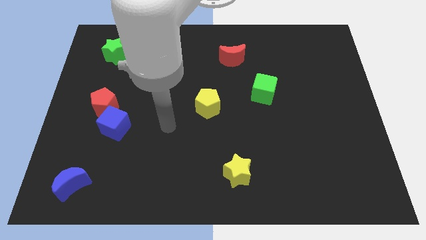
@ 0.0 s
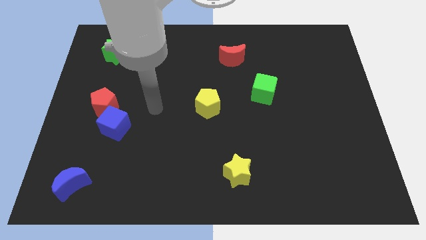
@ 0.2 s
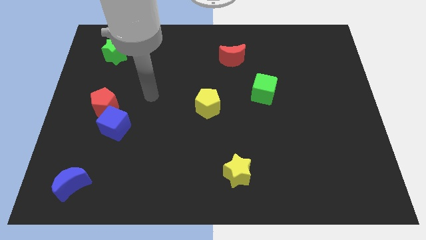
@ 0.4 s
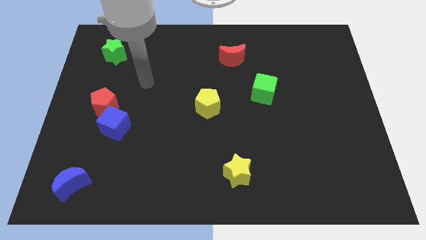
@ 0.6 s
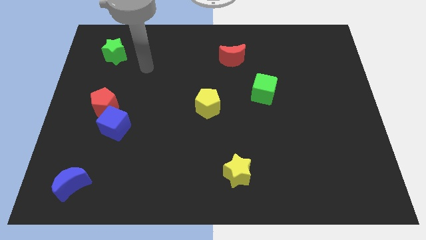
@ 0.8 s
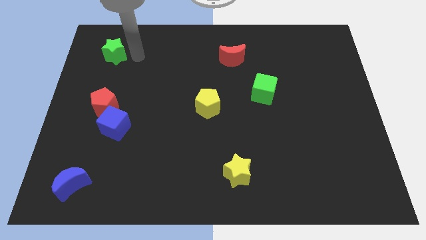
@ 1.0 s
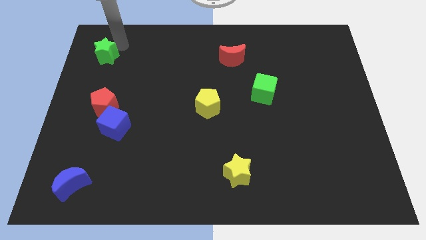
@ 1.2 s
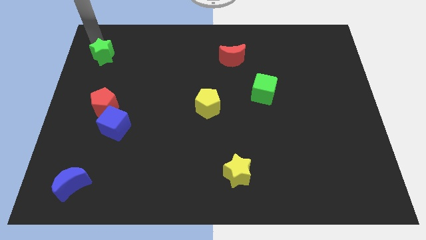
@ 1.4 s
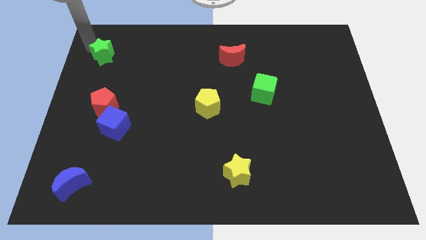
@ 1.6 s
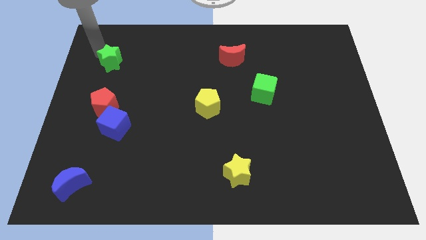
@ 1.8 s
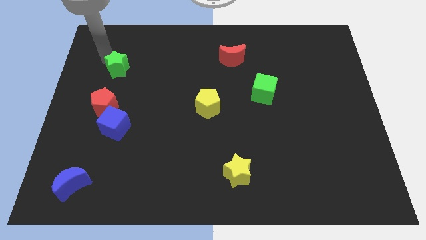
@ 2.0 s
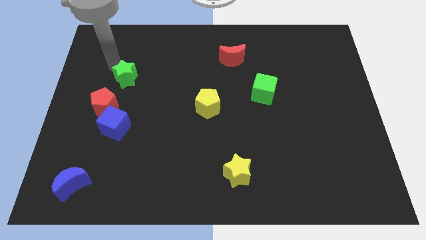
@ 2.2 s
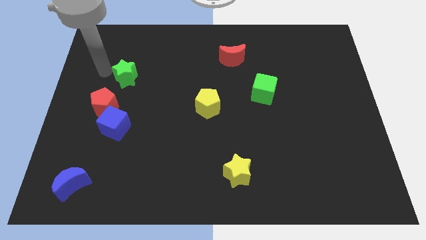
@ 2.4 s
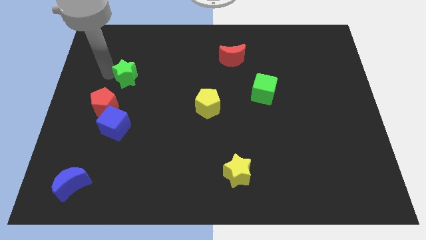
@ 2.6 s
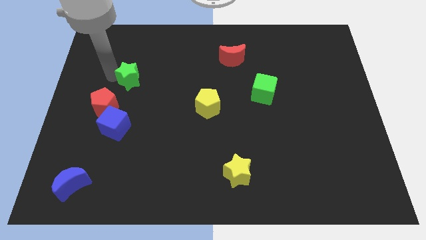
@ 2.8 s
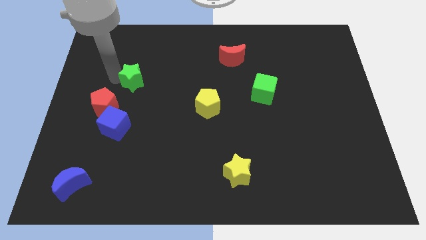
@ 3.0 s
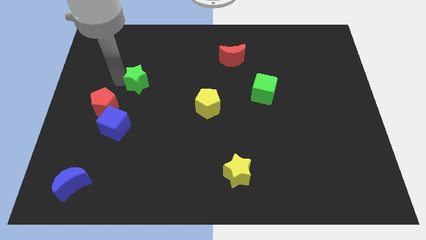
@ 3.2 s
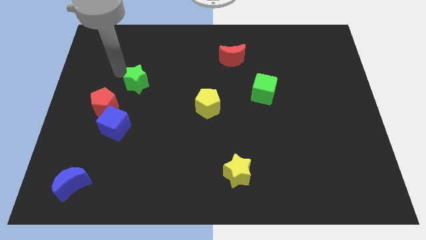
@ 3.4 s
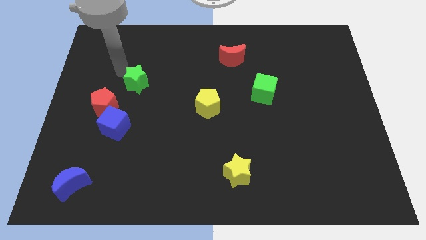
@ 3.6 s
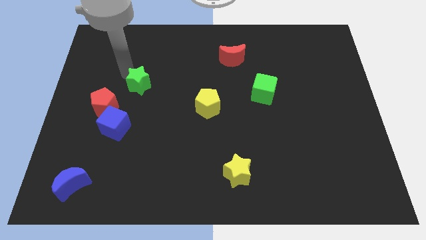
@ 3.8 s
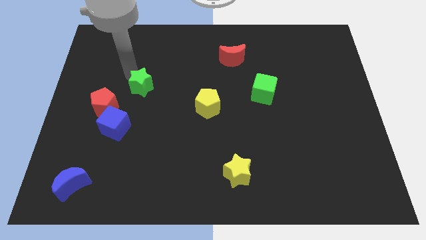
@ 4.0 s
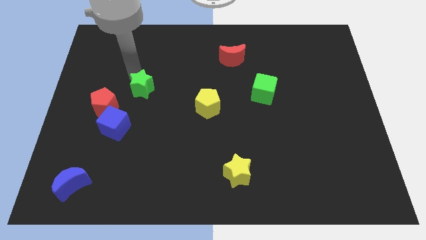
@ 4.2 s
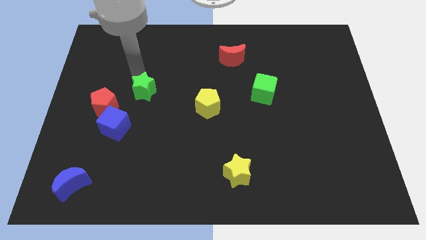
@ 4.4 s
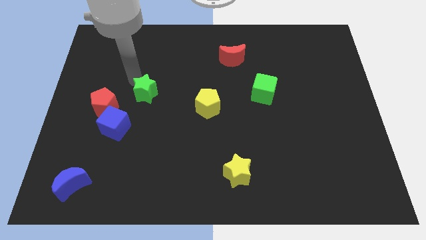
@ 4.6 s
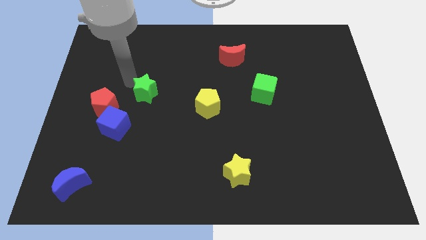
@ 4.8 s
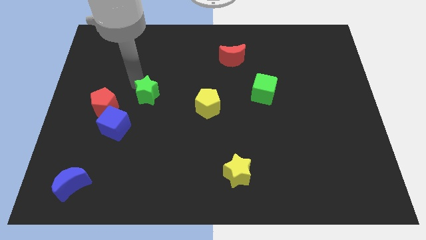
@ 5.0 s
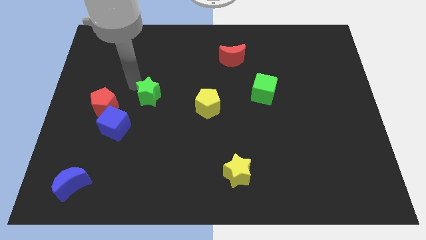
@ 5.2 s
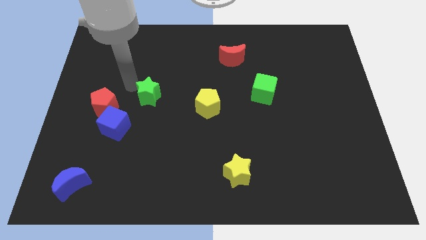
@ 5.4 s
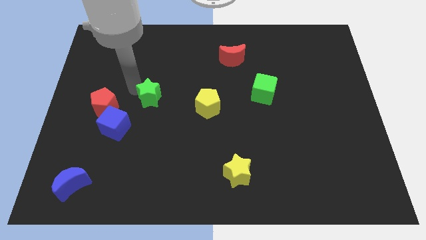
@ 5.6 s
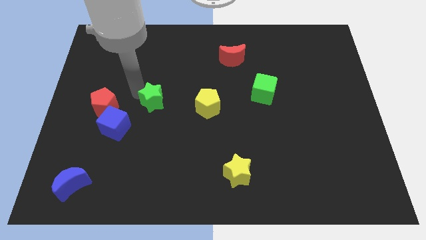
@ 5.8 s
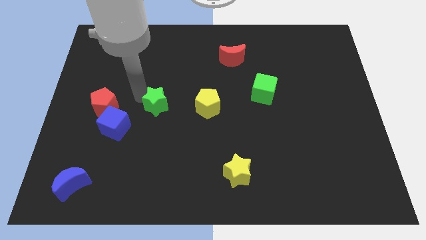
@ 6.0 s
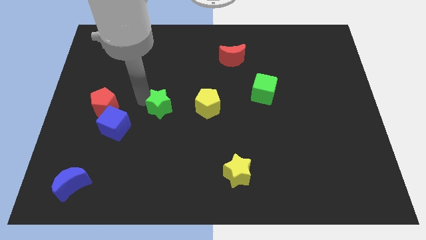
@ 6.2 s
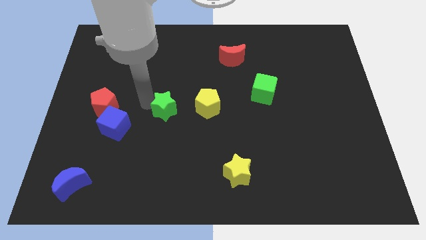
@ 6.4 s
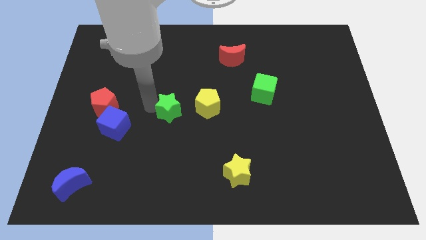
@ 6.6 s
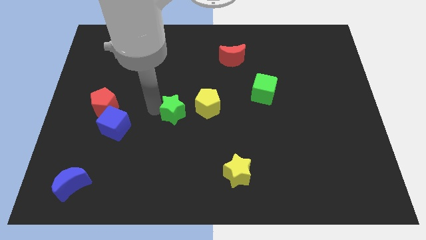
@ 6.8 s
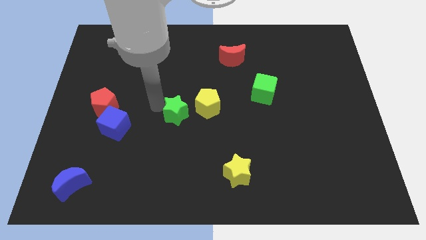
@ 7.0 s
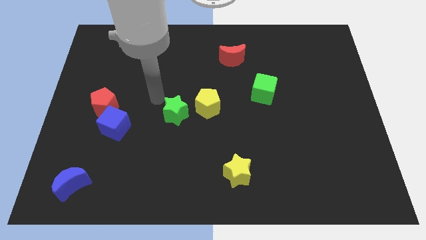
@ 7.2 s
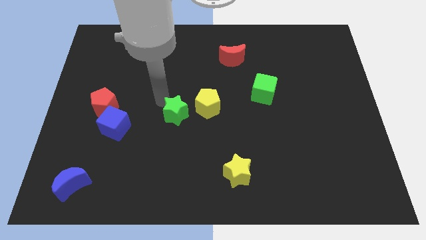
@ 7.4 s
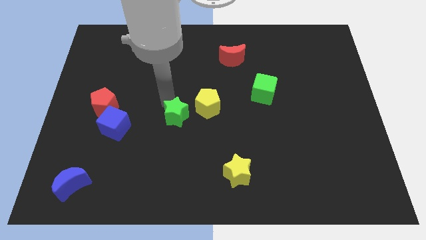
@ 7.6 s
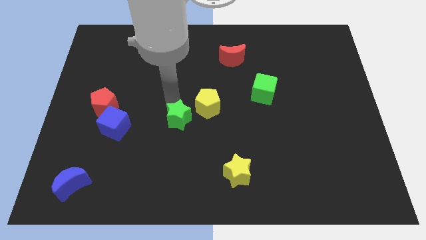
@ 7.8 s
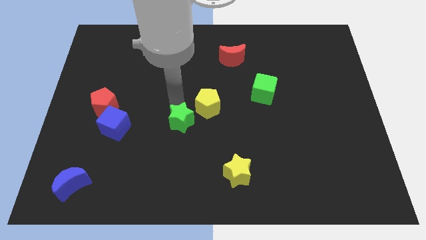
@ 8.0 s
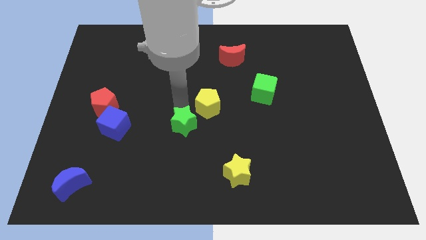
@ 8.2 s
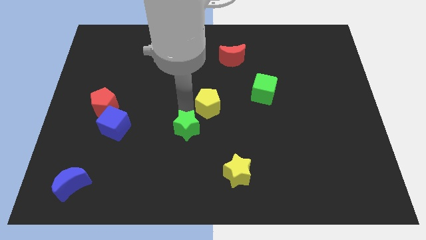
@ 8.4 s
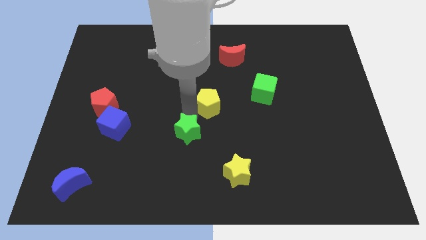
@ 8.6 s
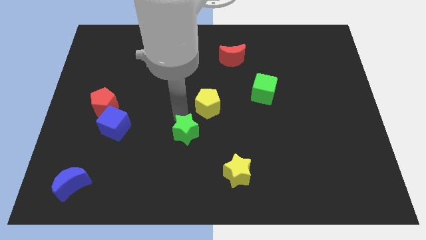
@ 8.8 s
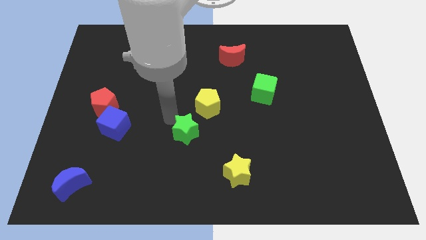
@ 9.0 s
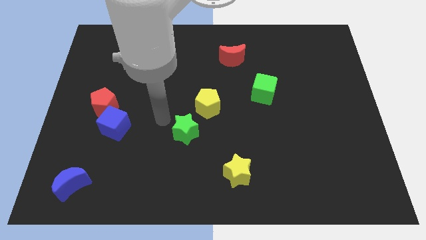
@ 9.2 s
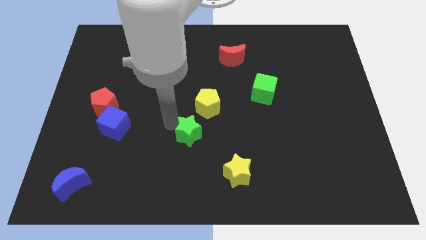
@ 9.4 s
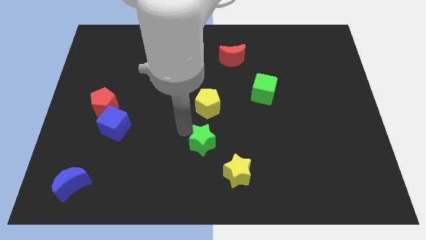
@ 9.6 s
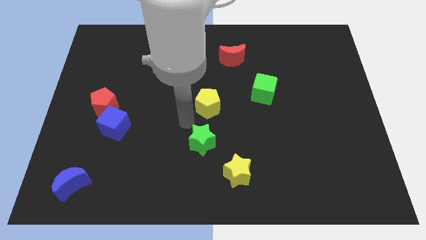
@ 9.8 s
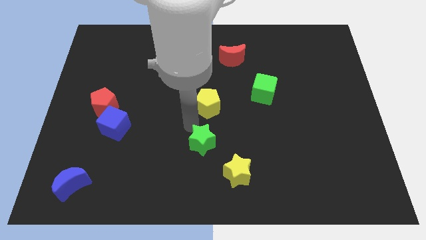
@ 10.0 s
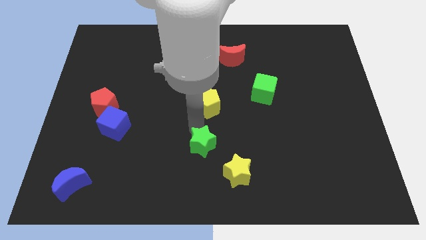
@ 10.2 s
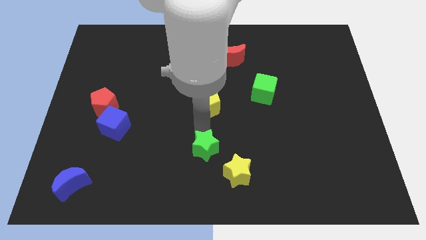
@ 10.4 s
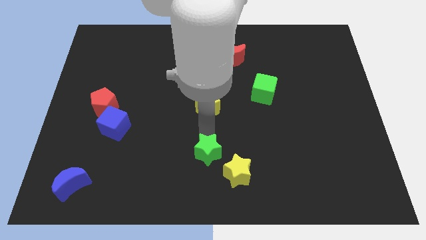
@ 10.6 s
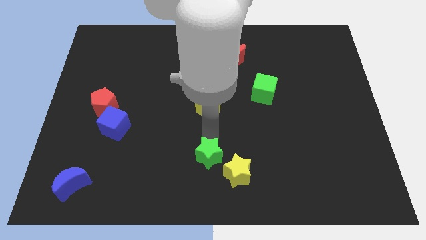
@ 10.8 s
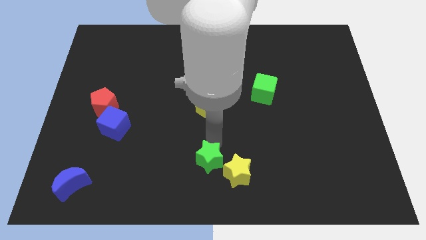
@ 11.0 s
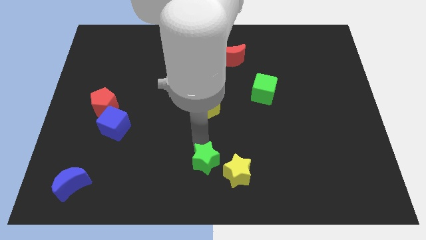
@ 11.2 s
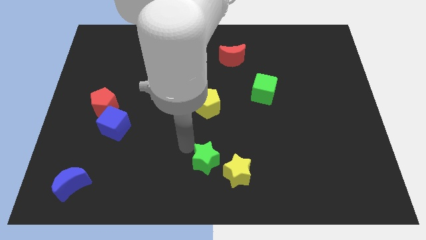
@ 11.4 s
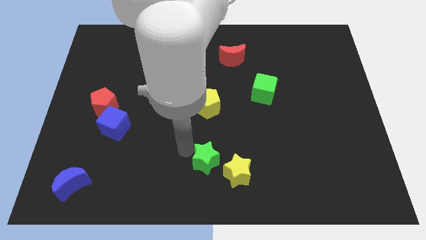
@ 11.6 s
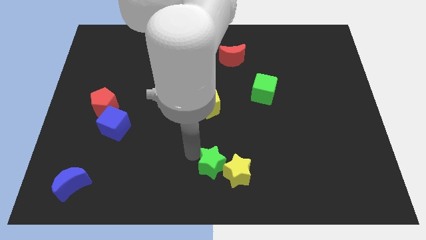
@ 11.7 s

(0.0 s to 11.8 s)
push the green star towards the yellow star

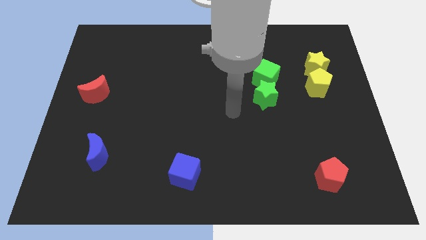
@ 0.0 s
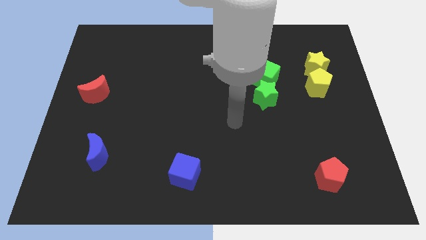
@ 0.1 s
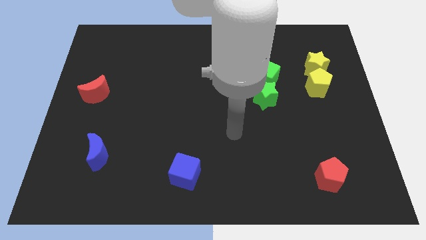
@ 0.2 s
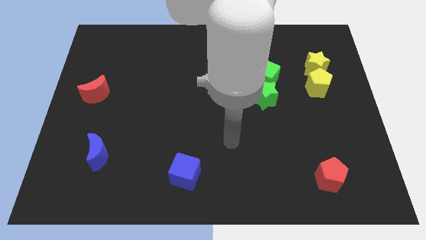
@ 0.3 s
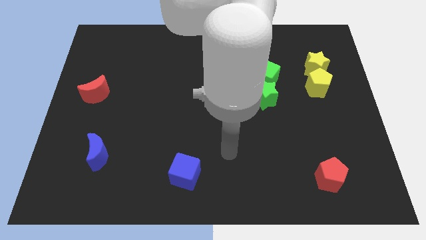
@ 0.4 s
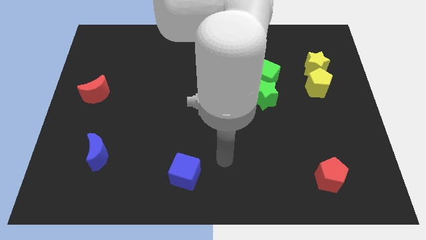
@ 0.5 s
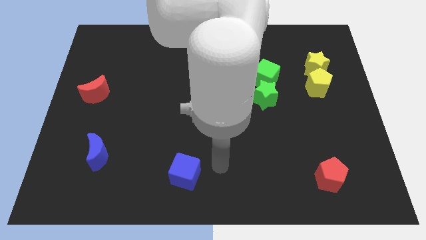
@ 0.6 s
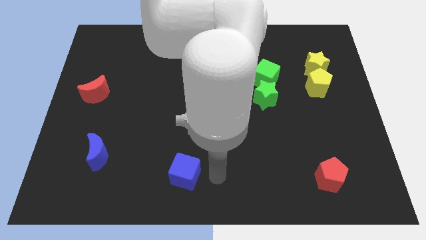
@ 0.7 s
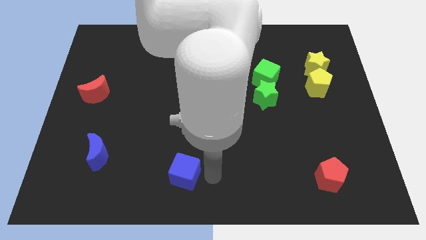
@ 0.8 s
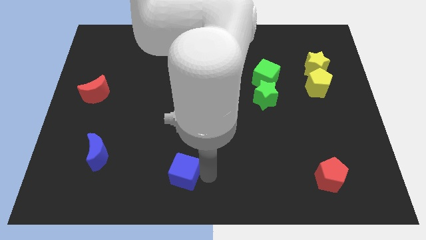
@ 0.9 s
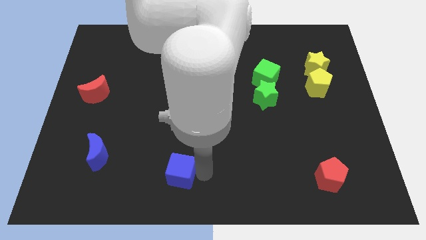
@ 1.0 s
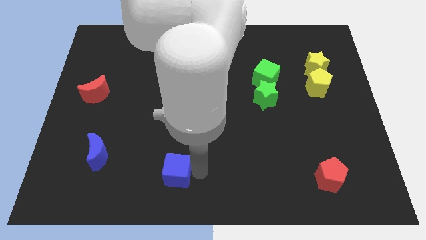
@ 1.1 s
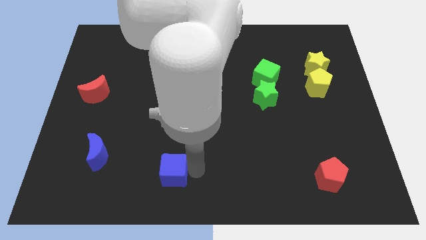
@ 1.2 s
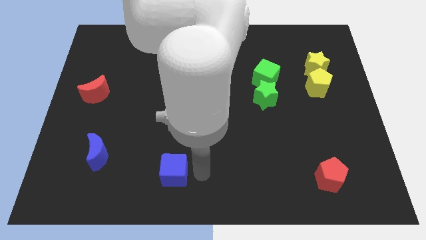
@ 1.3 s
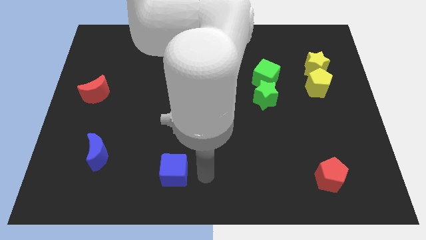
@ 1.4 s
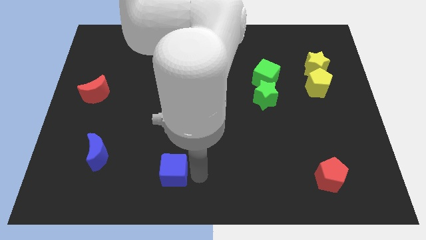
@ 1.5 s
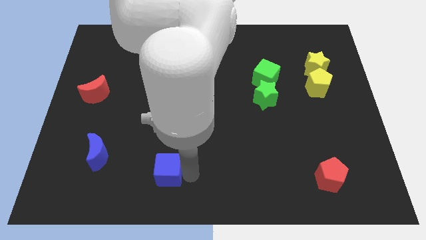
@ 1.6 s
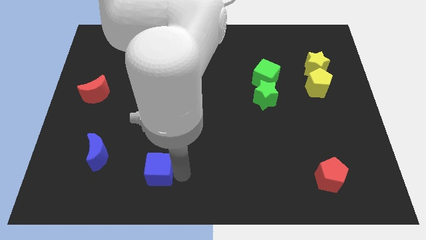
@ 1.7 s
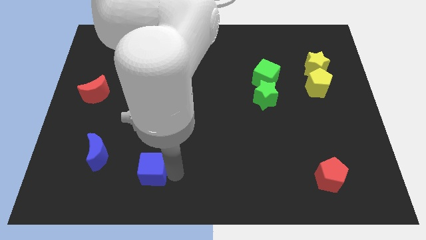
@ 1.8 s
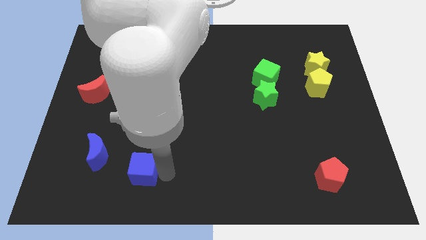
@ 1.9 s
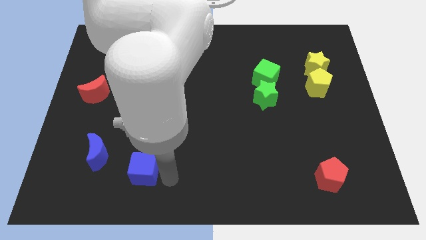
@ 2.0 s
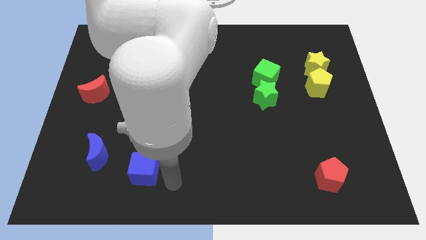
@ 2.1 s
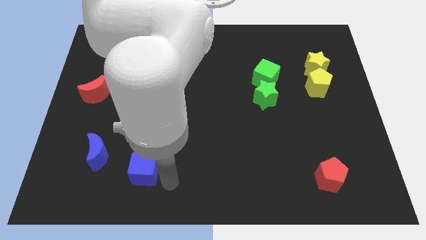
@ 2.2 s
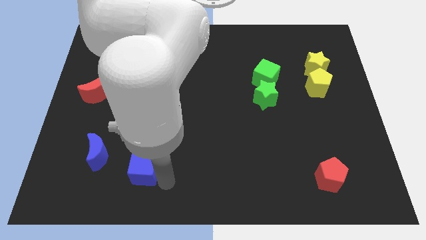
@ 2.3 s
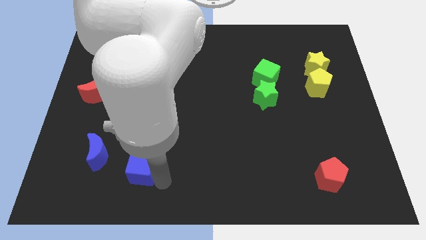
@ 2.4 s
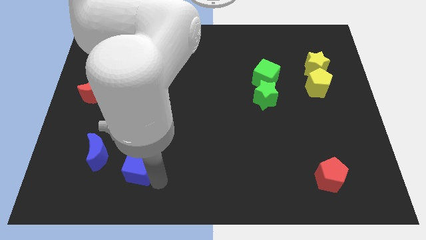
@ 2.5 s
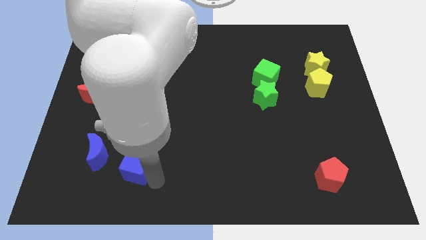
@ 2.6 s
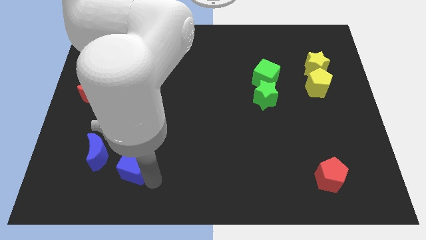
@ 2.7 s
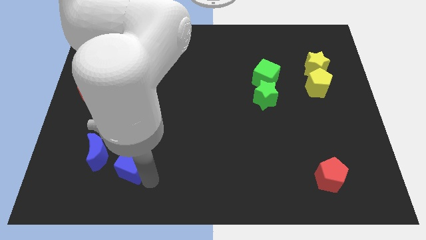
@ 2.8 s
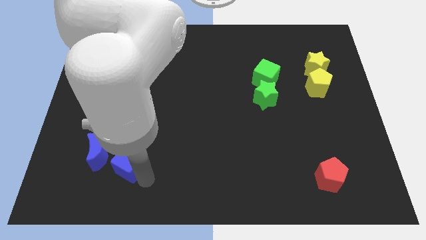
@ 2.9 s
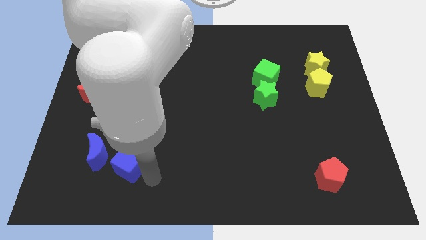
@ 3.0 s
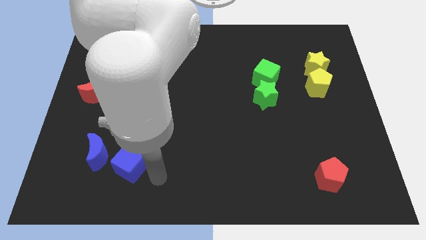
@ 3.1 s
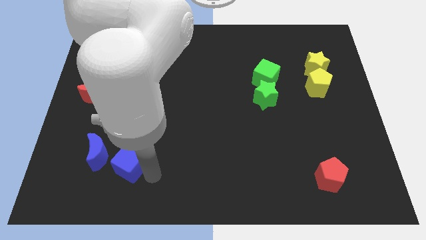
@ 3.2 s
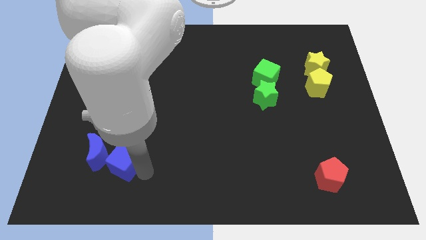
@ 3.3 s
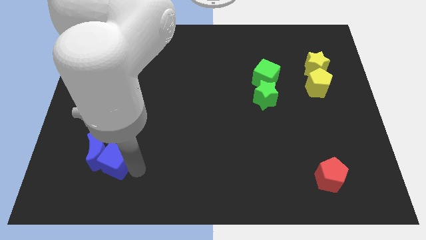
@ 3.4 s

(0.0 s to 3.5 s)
slide the blue cube next to the blue moon
